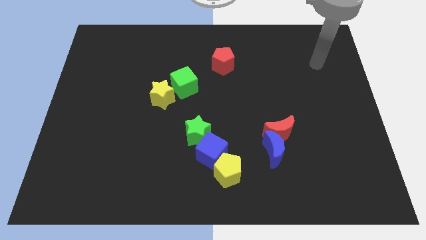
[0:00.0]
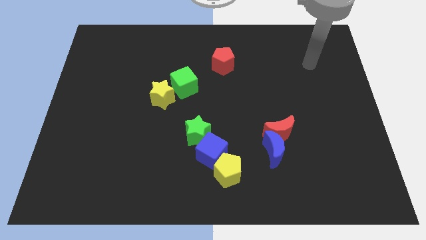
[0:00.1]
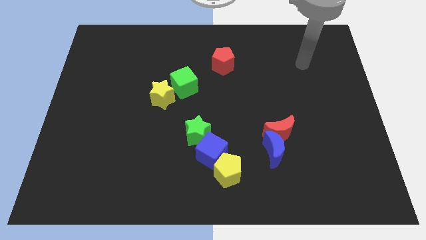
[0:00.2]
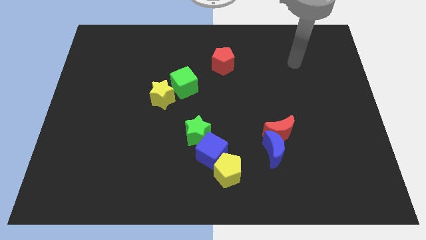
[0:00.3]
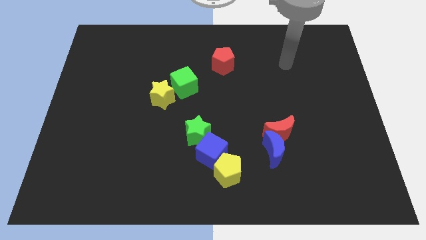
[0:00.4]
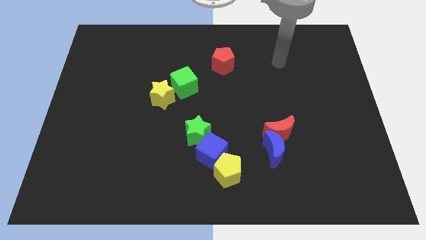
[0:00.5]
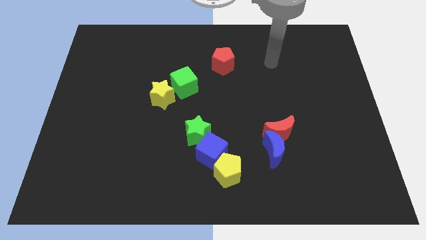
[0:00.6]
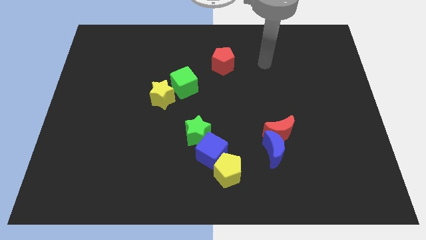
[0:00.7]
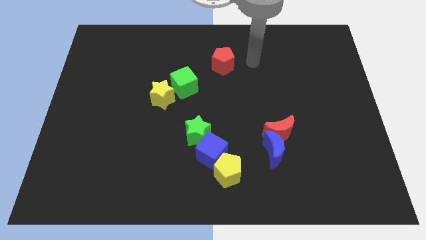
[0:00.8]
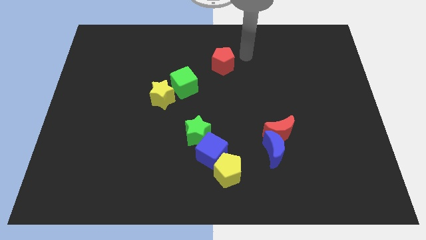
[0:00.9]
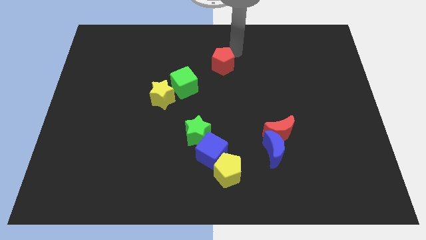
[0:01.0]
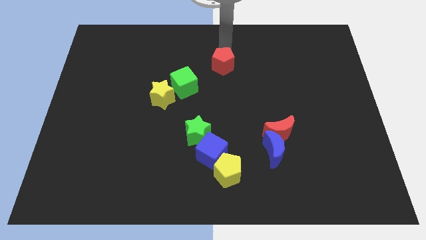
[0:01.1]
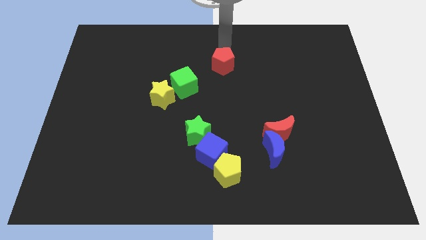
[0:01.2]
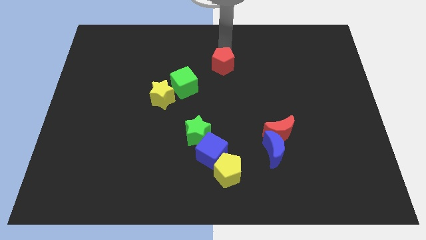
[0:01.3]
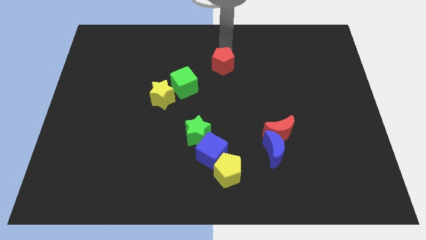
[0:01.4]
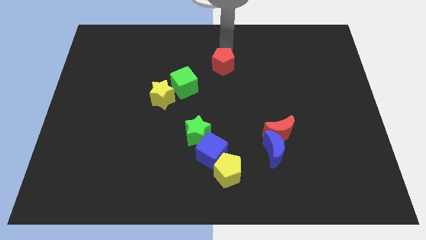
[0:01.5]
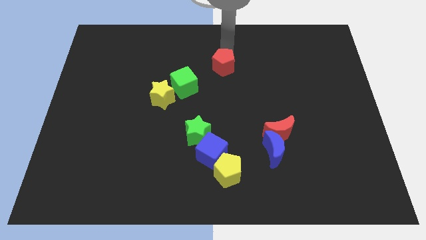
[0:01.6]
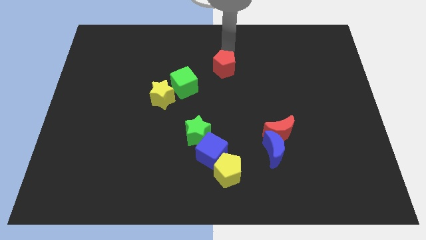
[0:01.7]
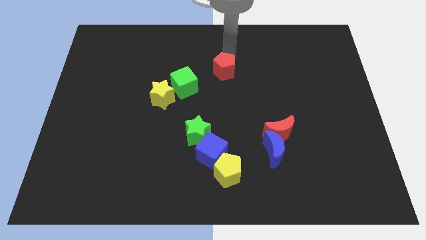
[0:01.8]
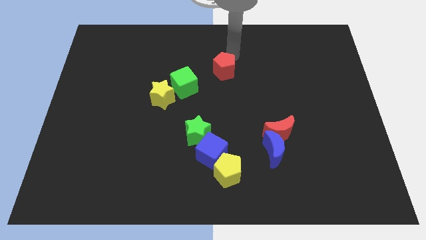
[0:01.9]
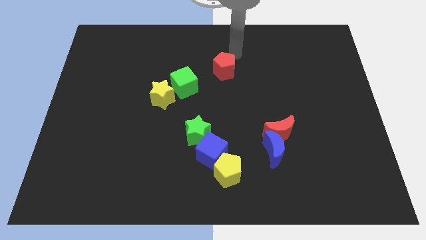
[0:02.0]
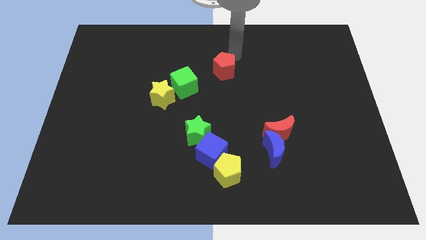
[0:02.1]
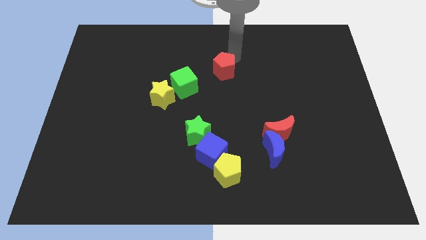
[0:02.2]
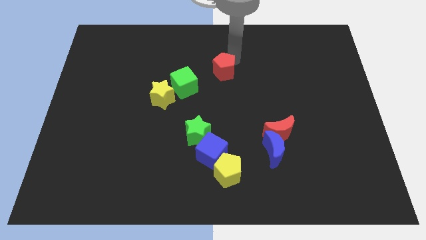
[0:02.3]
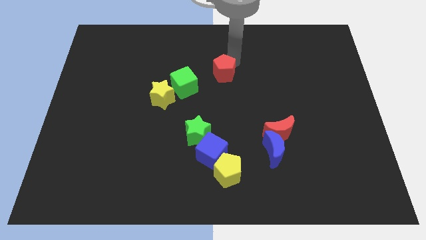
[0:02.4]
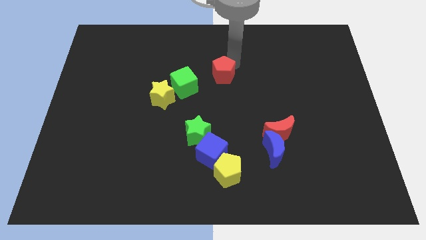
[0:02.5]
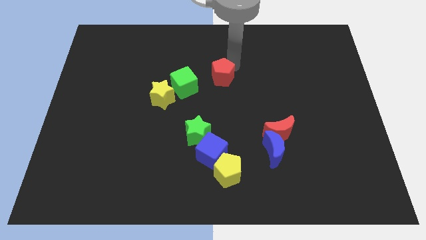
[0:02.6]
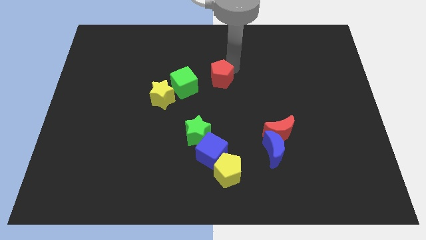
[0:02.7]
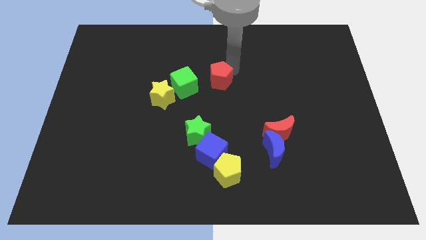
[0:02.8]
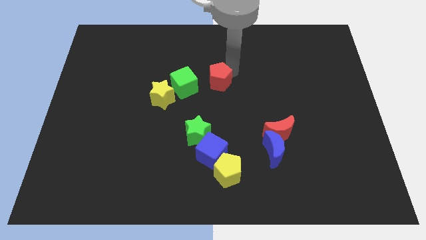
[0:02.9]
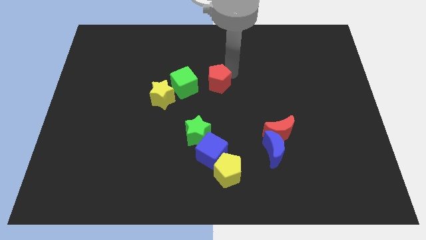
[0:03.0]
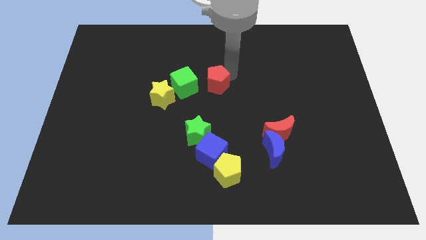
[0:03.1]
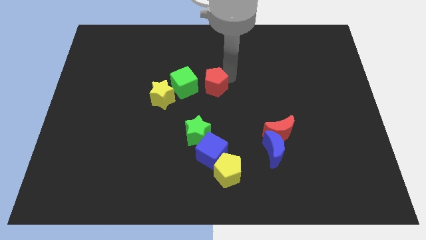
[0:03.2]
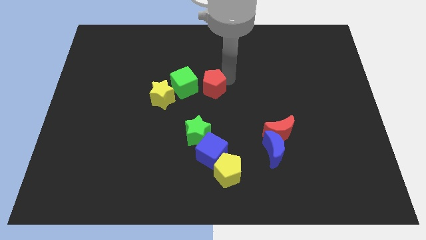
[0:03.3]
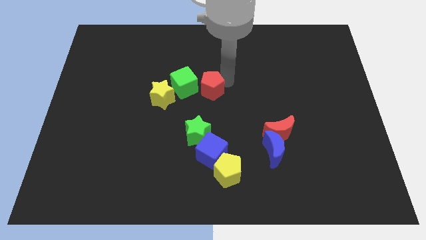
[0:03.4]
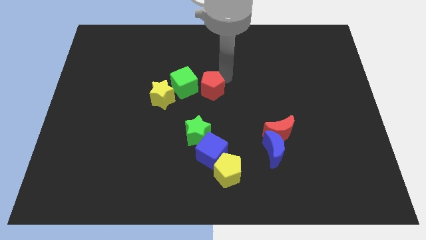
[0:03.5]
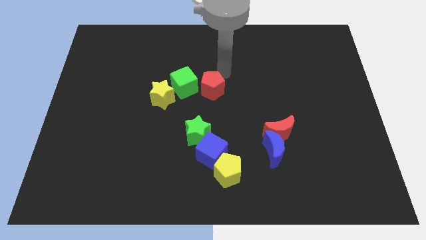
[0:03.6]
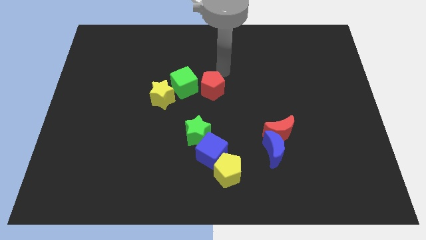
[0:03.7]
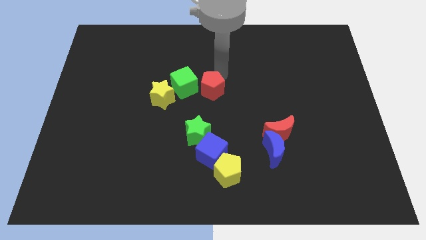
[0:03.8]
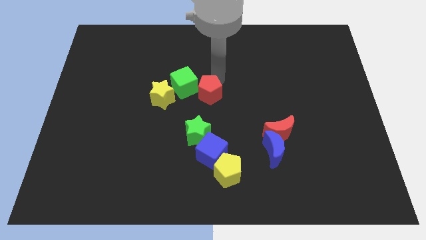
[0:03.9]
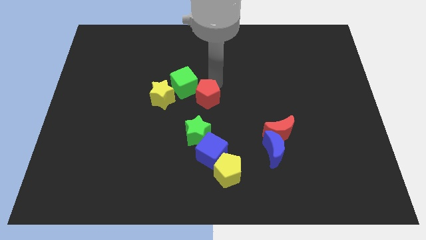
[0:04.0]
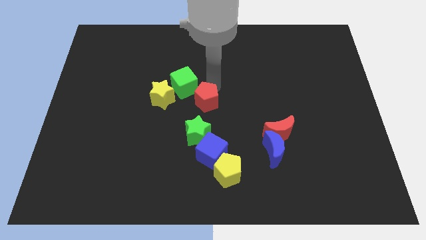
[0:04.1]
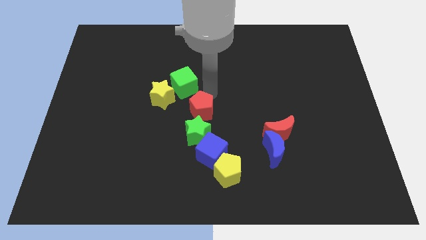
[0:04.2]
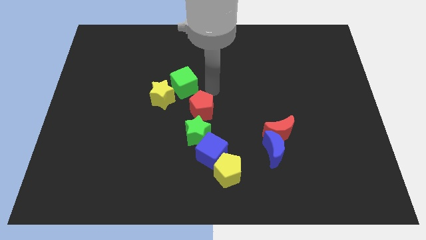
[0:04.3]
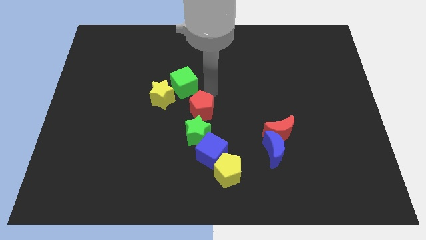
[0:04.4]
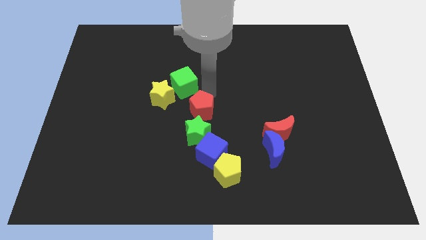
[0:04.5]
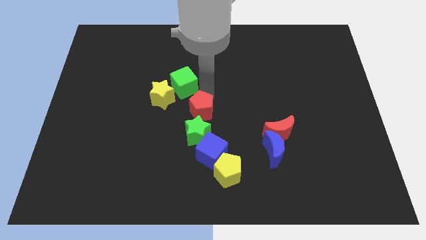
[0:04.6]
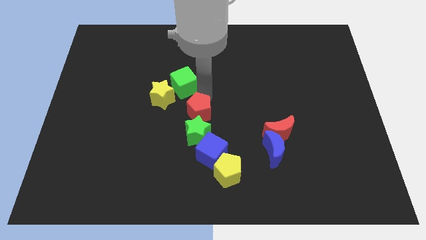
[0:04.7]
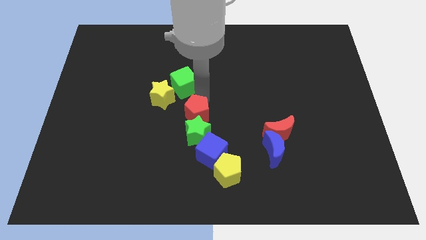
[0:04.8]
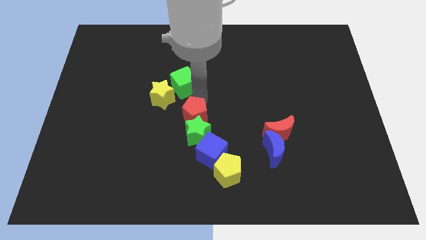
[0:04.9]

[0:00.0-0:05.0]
push the red pentagon to the top left of the blue cube

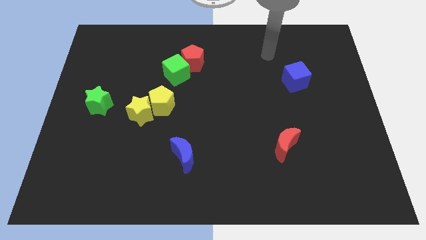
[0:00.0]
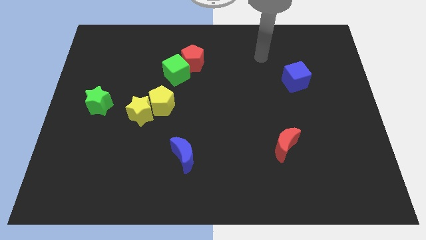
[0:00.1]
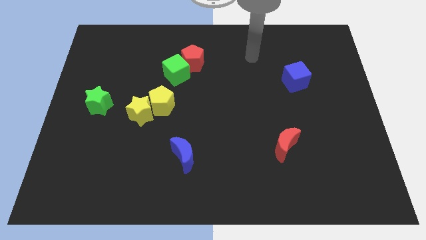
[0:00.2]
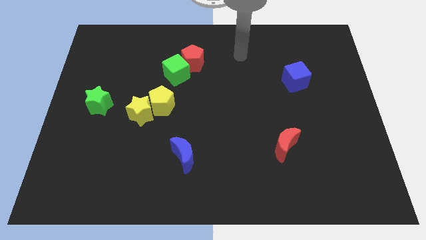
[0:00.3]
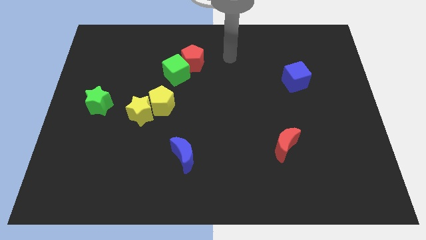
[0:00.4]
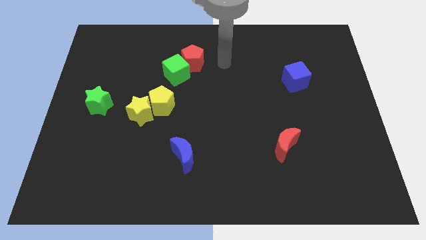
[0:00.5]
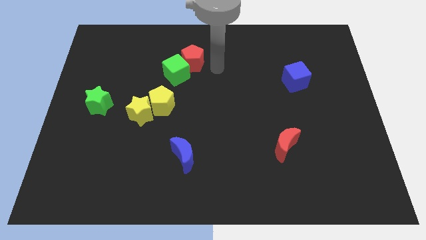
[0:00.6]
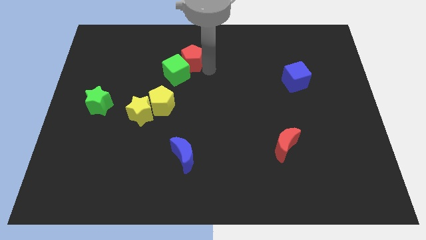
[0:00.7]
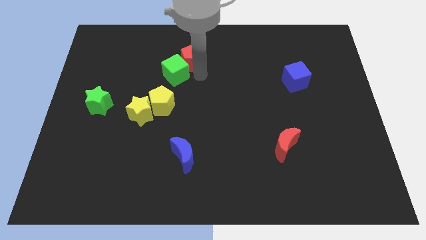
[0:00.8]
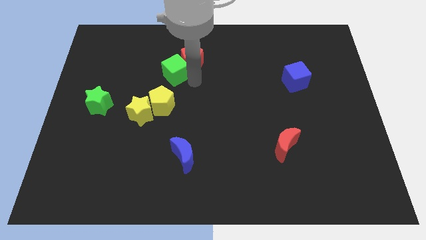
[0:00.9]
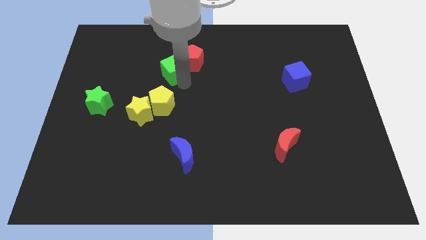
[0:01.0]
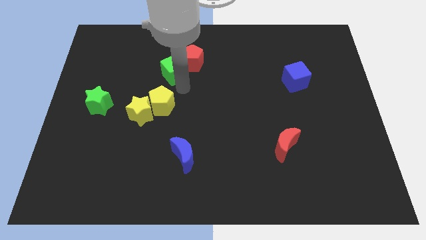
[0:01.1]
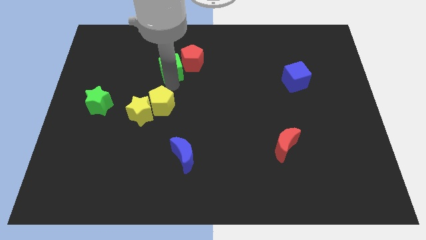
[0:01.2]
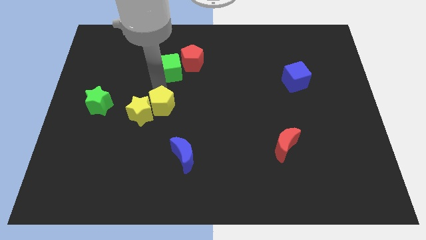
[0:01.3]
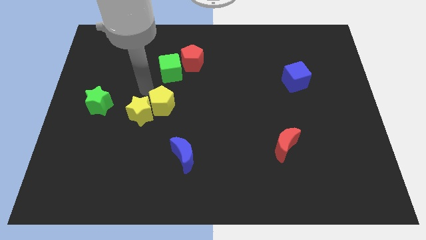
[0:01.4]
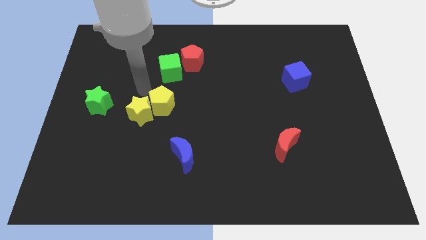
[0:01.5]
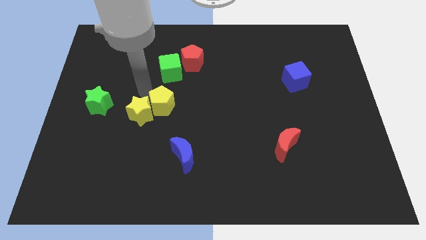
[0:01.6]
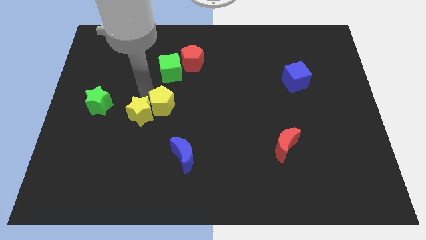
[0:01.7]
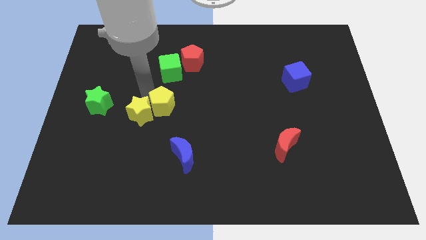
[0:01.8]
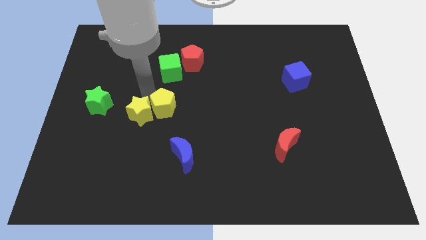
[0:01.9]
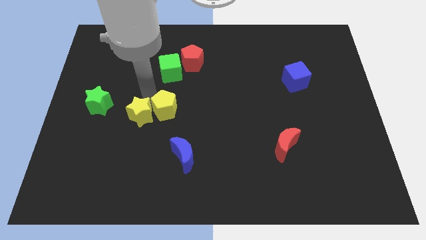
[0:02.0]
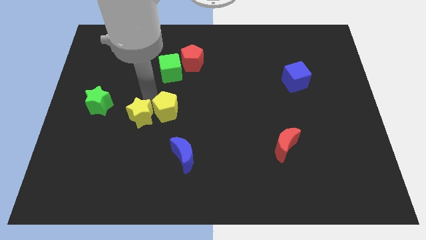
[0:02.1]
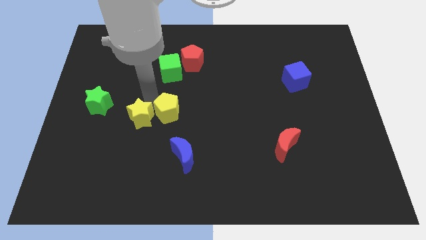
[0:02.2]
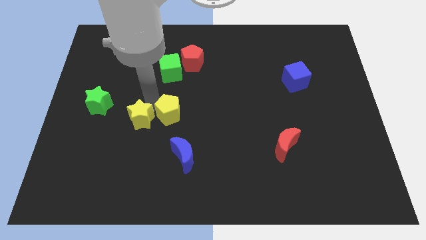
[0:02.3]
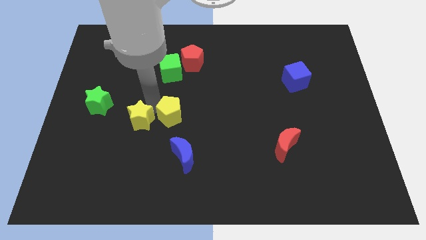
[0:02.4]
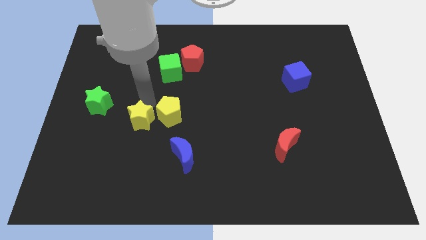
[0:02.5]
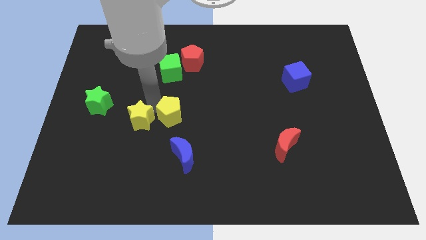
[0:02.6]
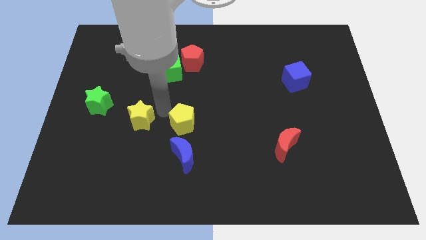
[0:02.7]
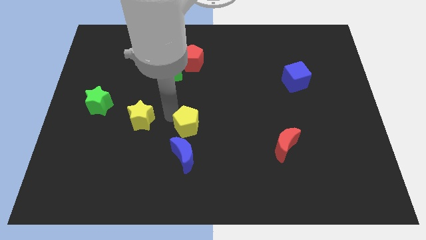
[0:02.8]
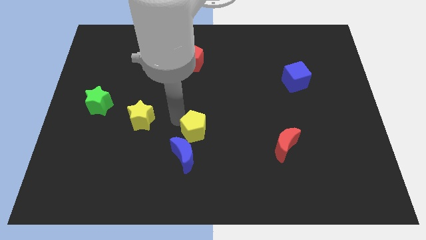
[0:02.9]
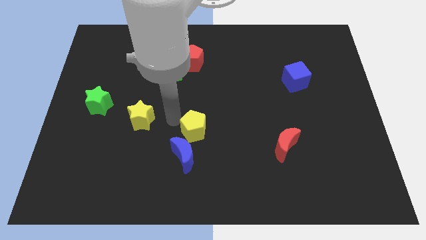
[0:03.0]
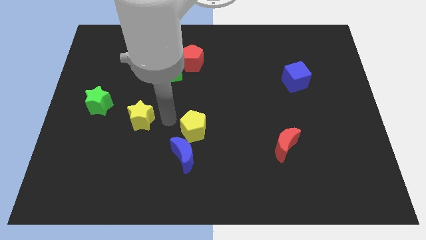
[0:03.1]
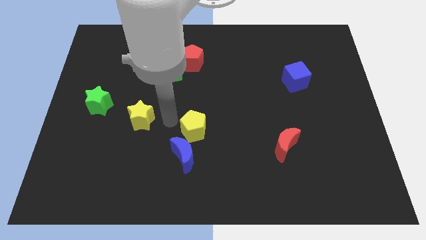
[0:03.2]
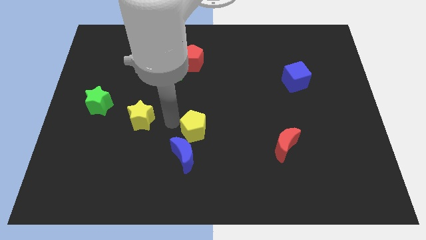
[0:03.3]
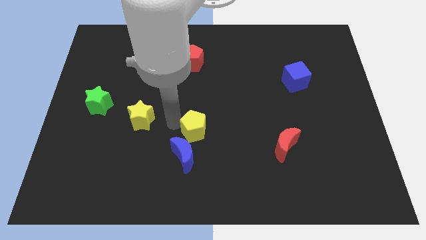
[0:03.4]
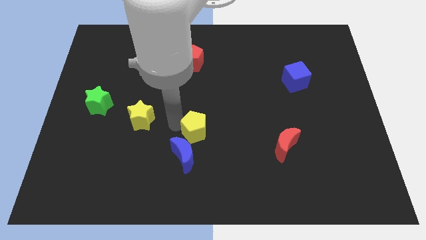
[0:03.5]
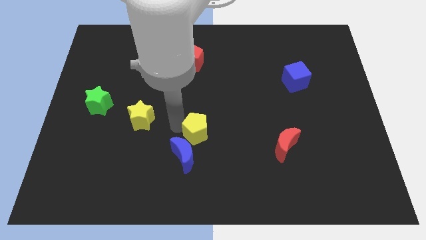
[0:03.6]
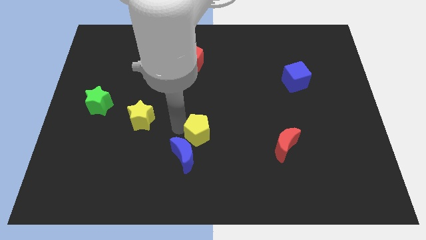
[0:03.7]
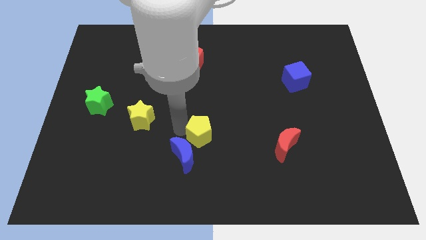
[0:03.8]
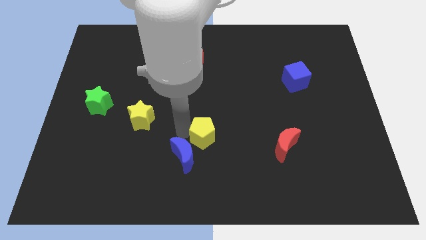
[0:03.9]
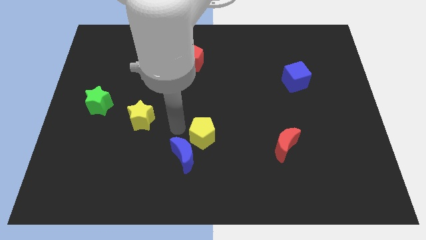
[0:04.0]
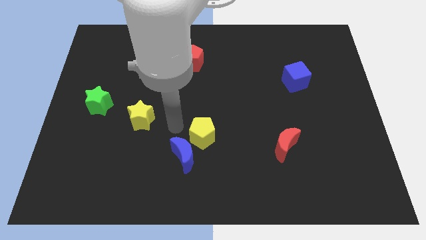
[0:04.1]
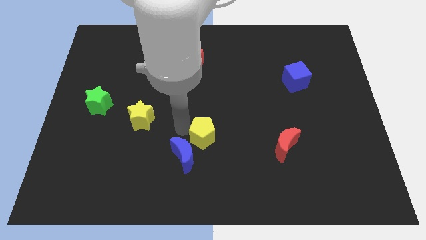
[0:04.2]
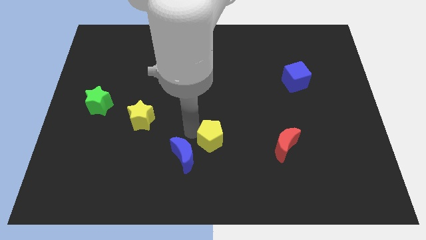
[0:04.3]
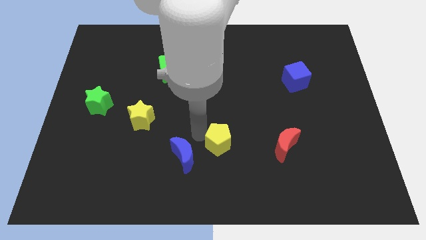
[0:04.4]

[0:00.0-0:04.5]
push the yellow pentagon just left of the red moon
